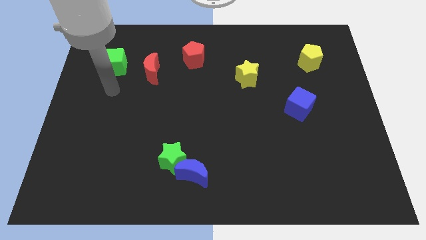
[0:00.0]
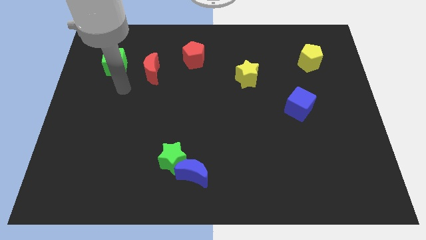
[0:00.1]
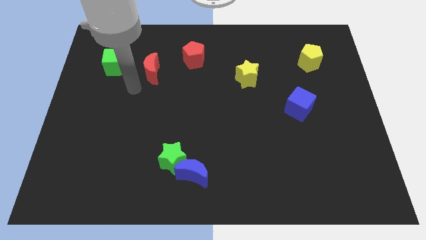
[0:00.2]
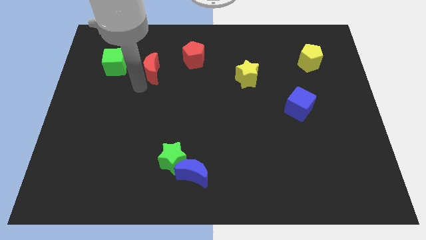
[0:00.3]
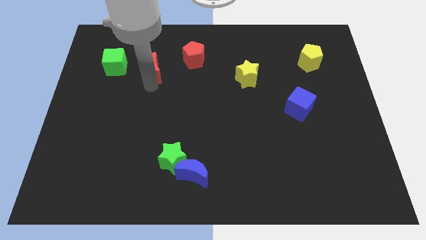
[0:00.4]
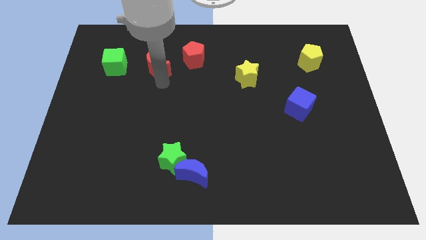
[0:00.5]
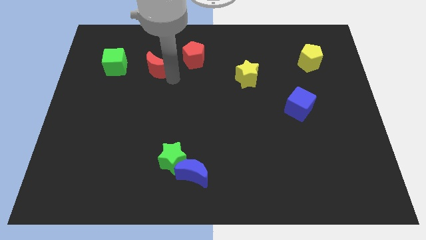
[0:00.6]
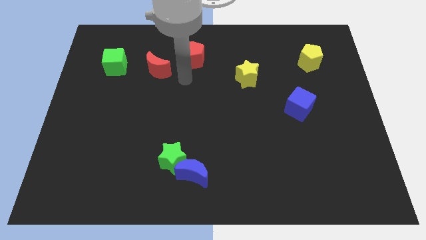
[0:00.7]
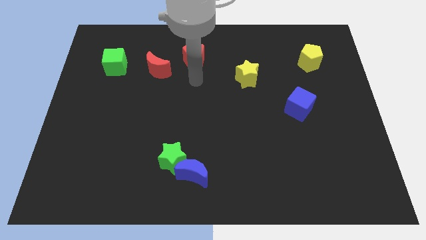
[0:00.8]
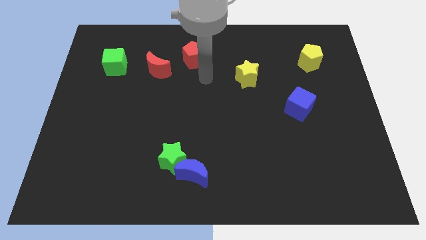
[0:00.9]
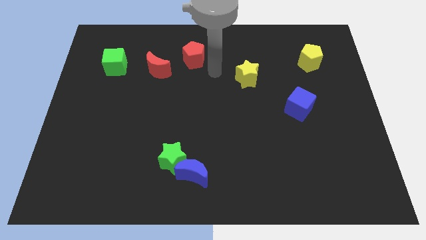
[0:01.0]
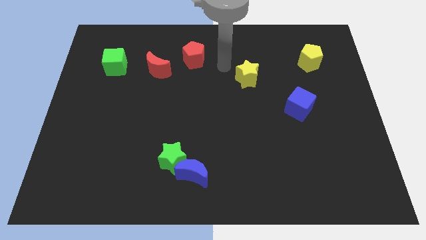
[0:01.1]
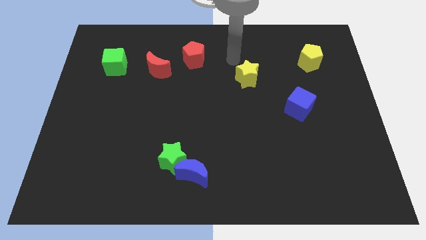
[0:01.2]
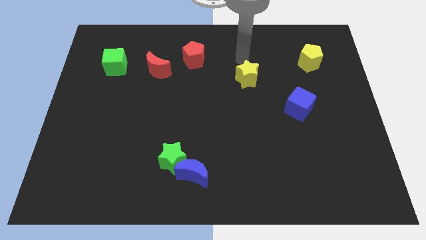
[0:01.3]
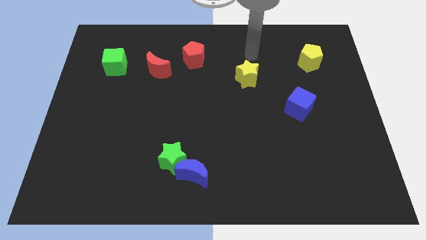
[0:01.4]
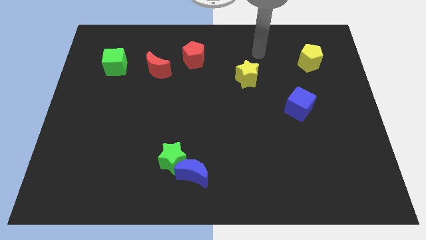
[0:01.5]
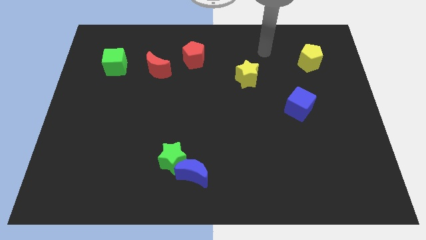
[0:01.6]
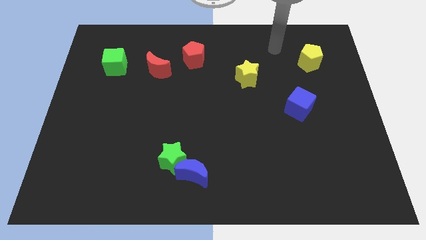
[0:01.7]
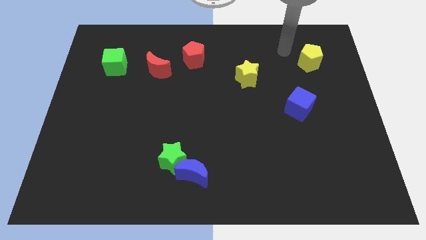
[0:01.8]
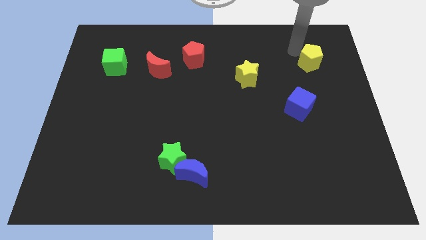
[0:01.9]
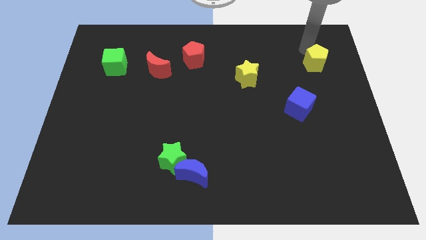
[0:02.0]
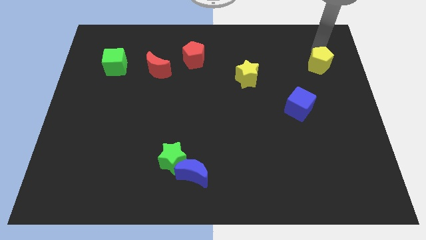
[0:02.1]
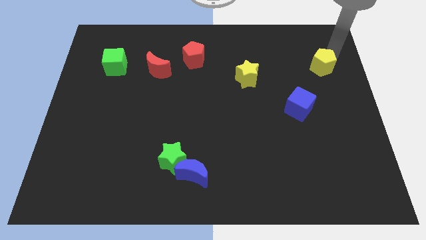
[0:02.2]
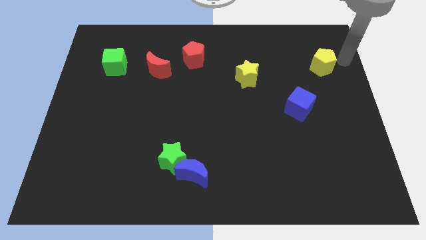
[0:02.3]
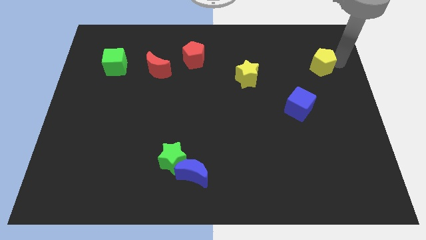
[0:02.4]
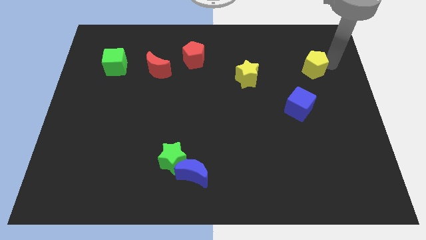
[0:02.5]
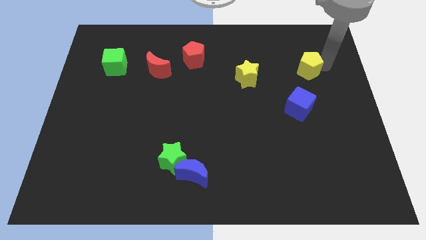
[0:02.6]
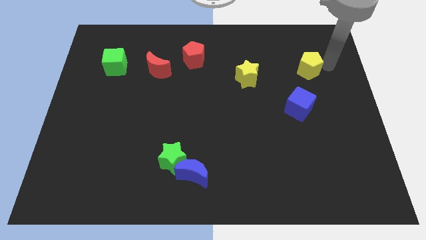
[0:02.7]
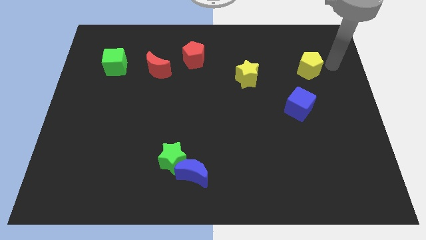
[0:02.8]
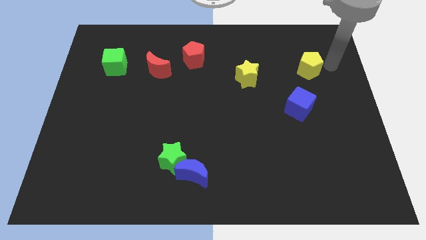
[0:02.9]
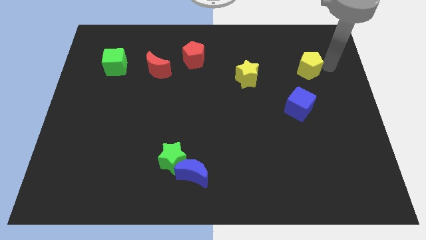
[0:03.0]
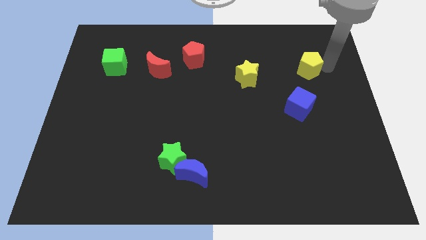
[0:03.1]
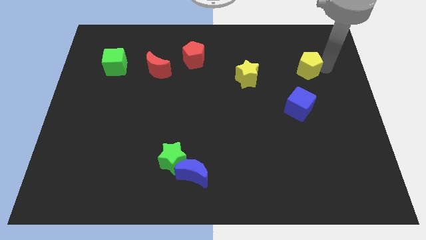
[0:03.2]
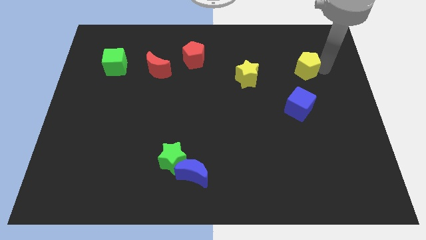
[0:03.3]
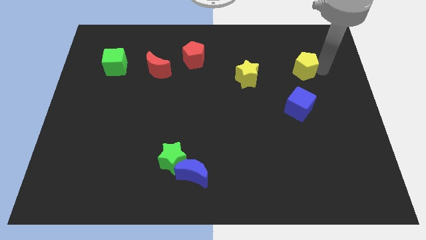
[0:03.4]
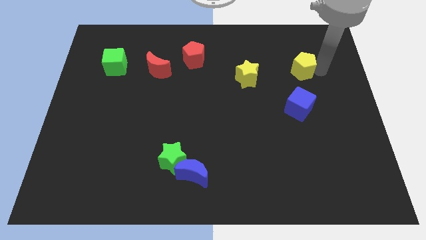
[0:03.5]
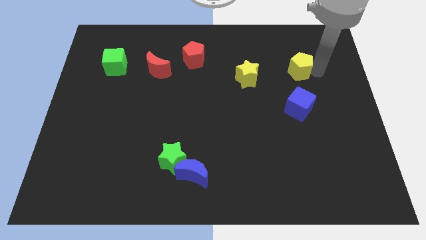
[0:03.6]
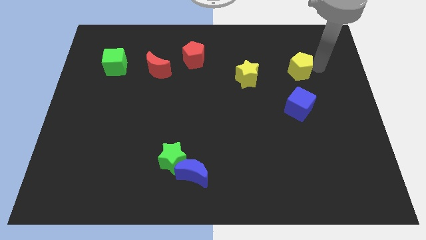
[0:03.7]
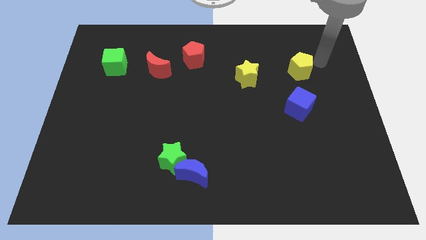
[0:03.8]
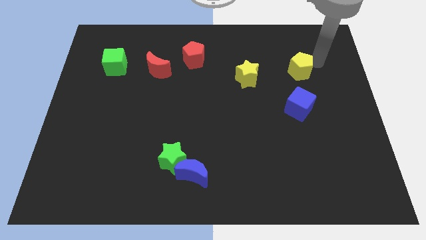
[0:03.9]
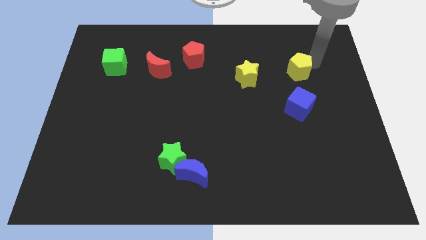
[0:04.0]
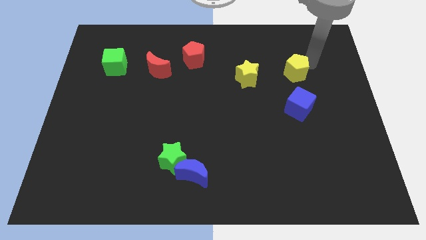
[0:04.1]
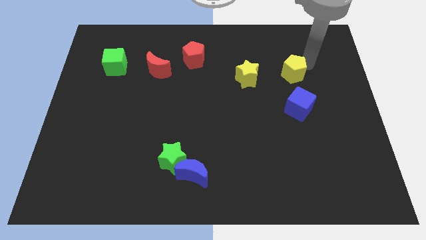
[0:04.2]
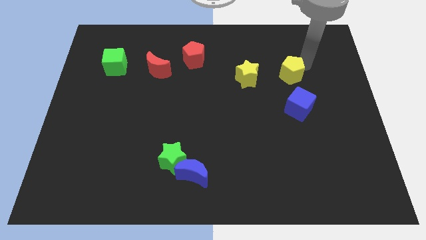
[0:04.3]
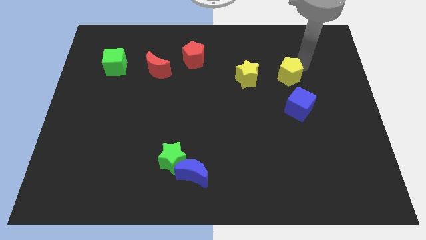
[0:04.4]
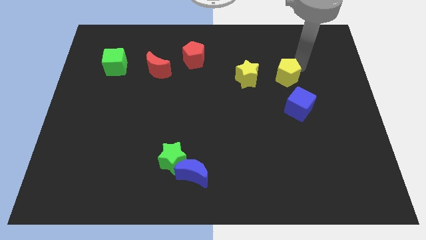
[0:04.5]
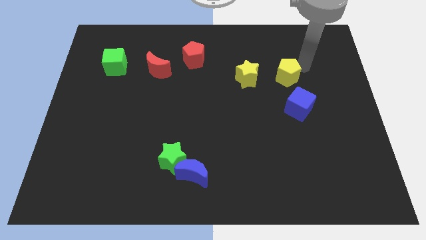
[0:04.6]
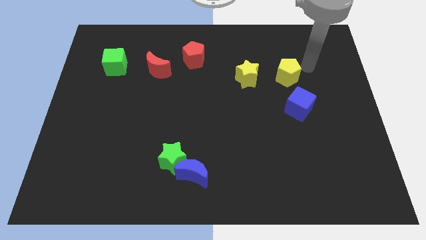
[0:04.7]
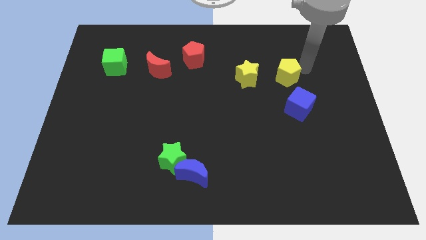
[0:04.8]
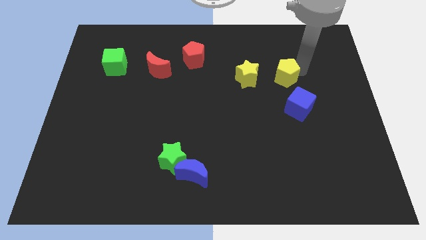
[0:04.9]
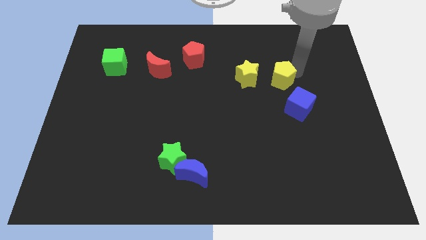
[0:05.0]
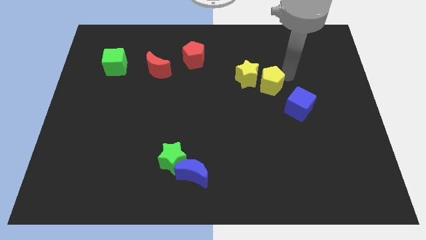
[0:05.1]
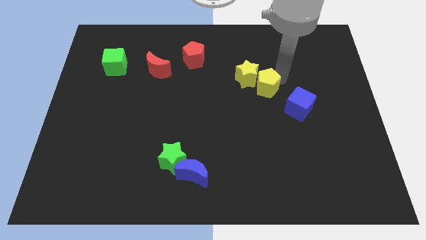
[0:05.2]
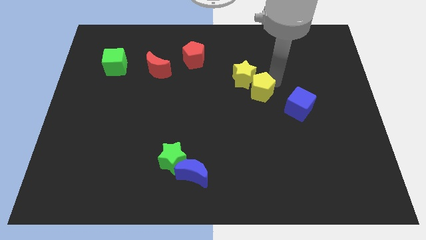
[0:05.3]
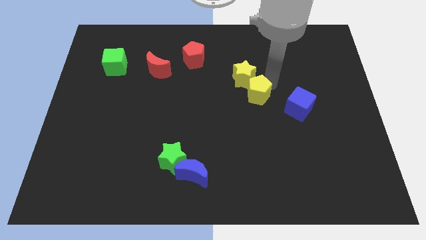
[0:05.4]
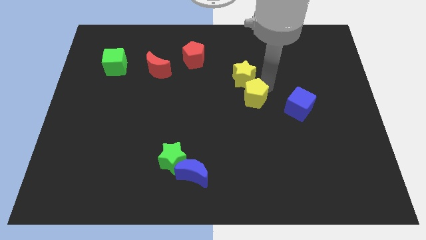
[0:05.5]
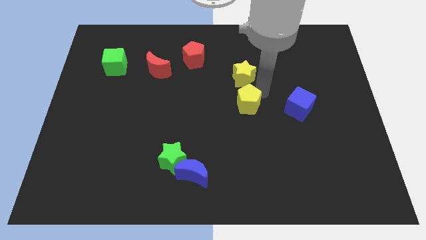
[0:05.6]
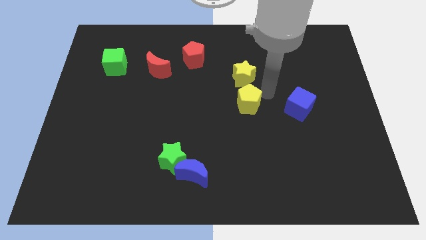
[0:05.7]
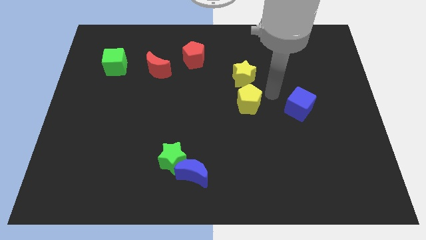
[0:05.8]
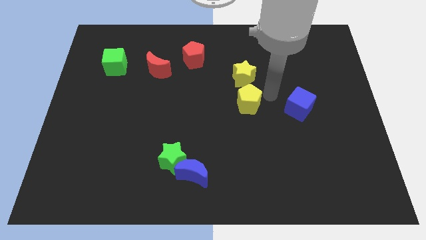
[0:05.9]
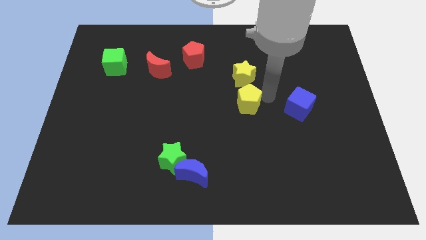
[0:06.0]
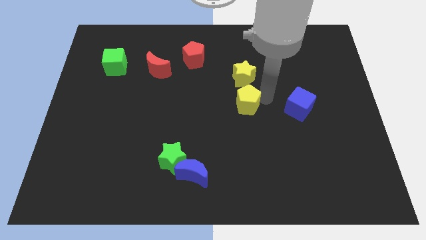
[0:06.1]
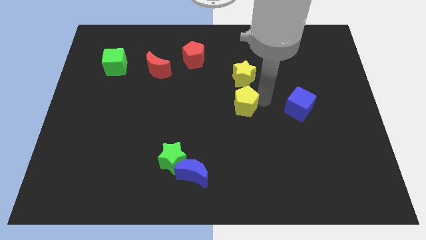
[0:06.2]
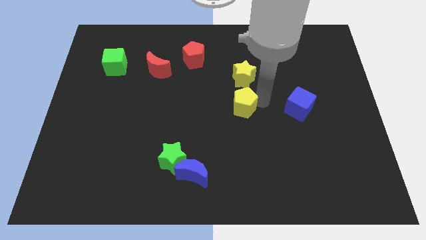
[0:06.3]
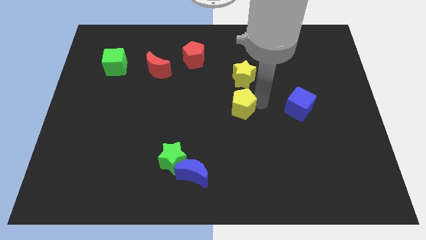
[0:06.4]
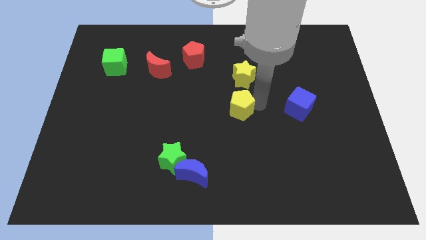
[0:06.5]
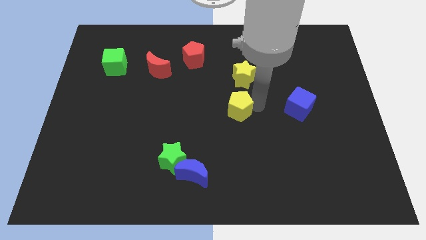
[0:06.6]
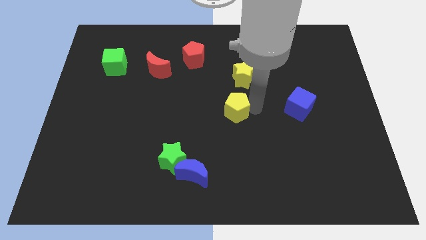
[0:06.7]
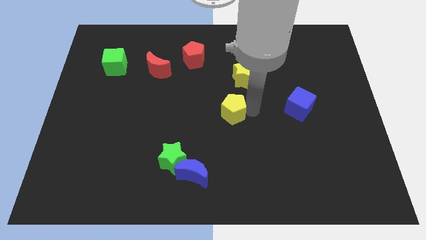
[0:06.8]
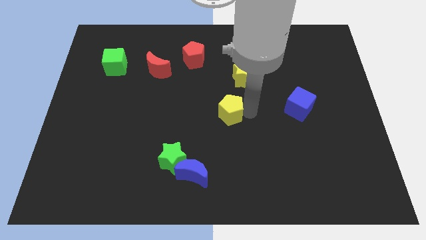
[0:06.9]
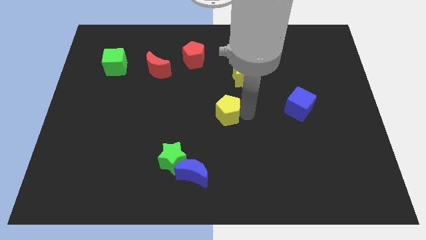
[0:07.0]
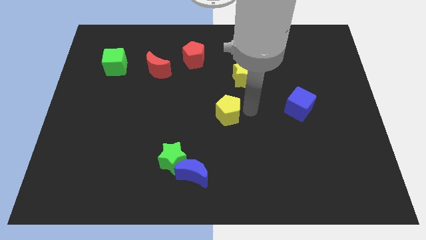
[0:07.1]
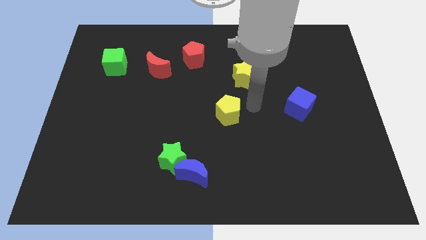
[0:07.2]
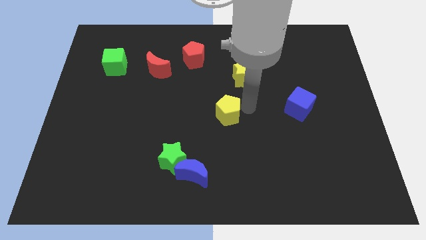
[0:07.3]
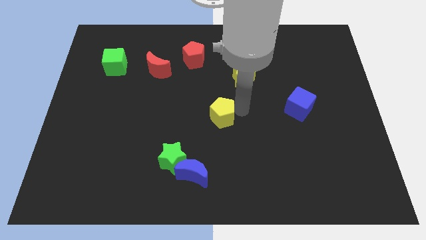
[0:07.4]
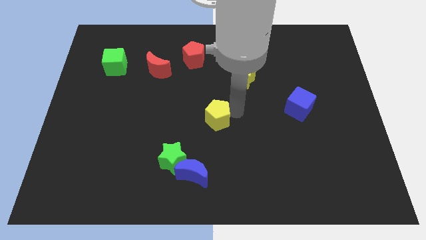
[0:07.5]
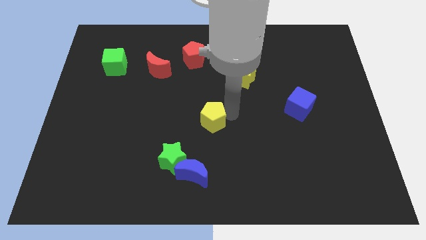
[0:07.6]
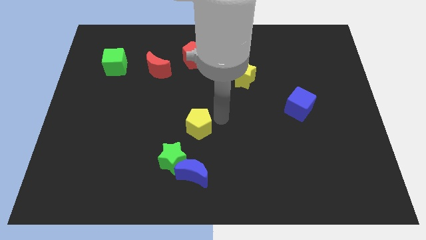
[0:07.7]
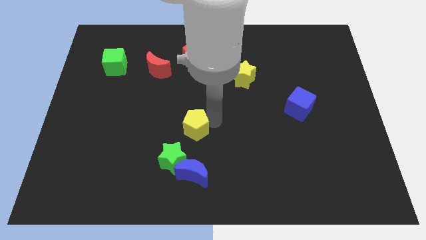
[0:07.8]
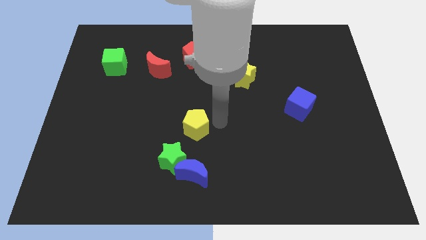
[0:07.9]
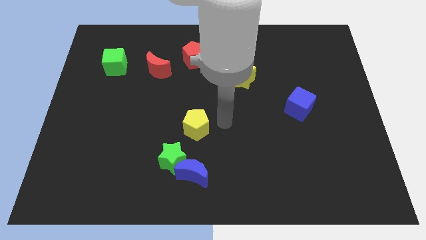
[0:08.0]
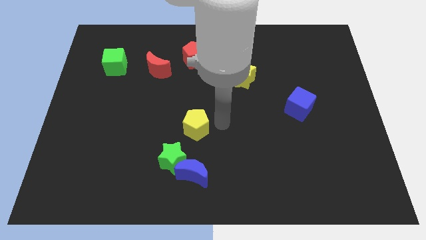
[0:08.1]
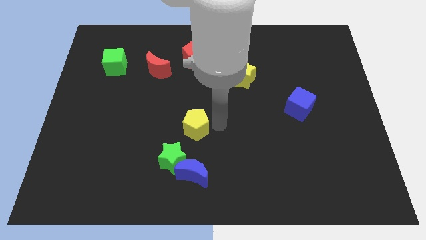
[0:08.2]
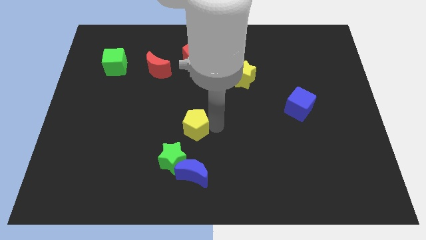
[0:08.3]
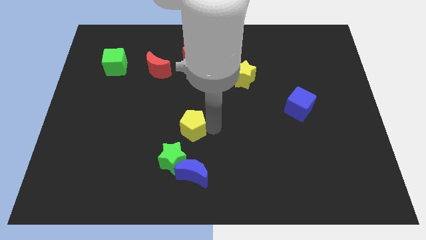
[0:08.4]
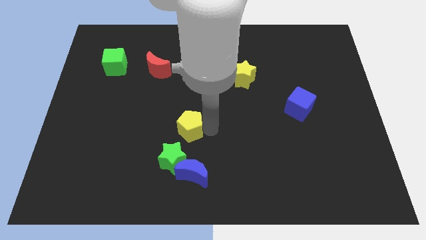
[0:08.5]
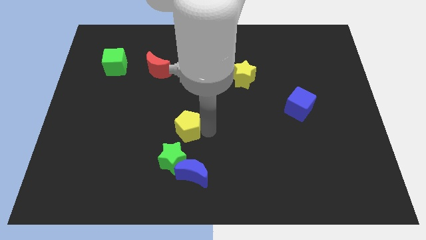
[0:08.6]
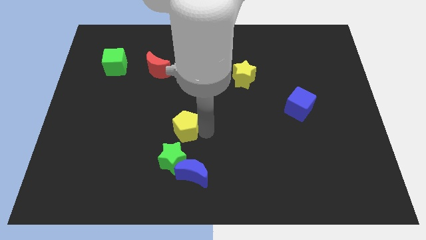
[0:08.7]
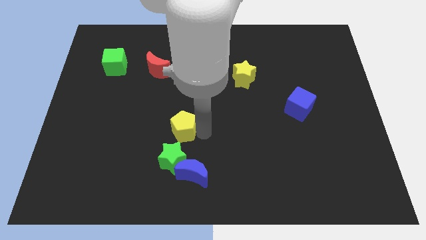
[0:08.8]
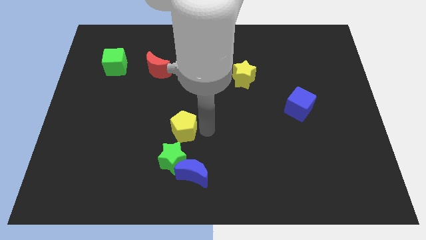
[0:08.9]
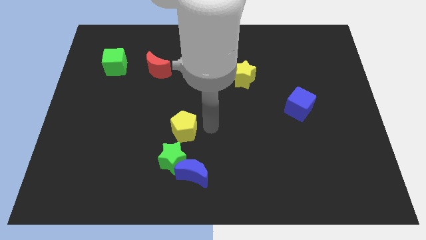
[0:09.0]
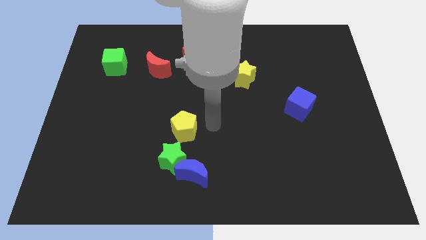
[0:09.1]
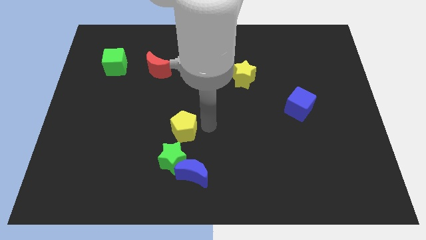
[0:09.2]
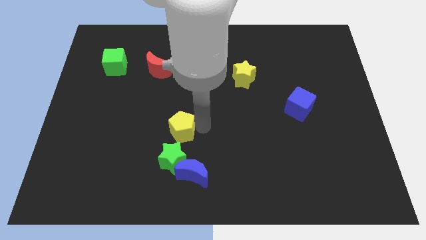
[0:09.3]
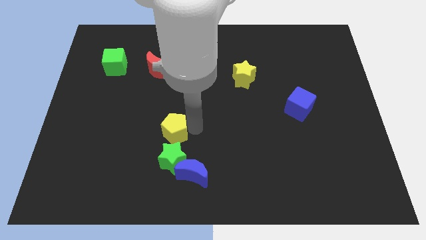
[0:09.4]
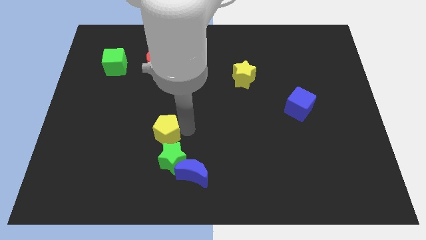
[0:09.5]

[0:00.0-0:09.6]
move the yellow pentagon to the top left side of the green star
